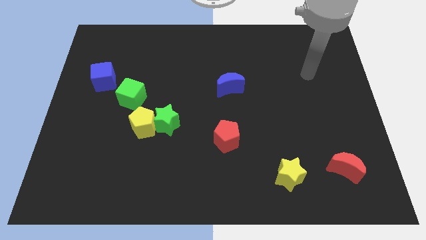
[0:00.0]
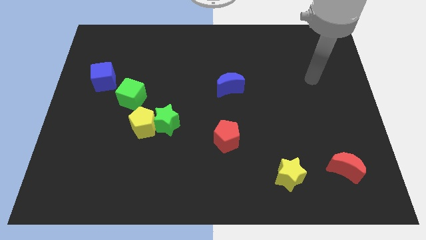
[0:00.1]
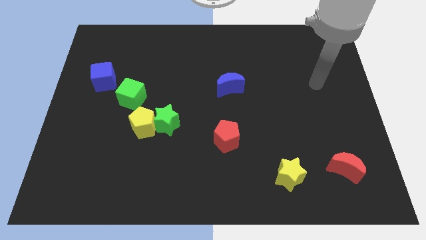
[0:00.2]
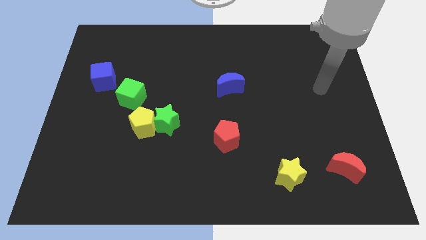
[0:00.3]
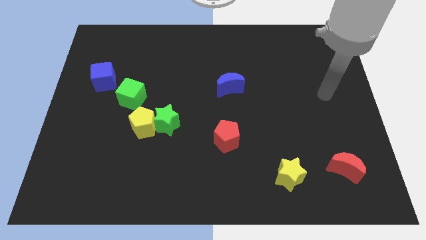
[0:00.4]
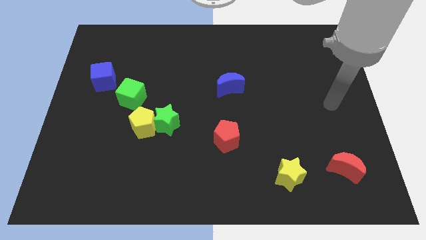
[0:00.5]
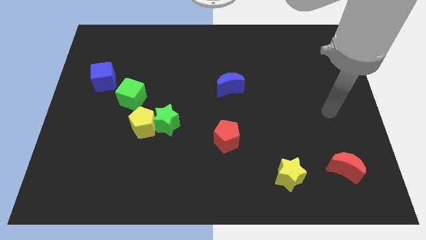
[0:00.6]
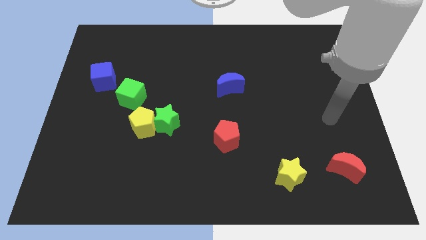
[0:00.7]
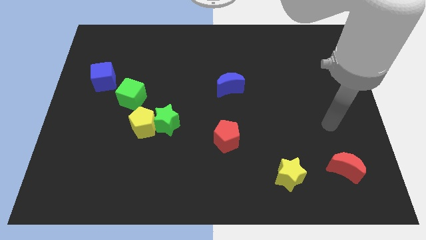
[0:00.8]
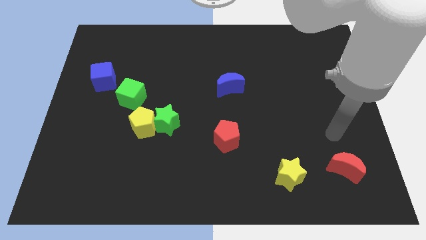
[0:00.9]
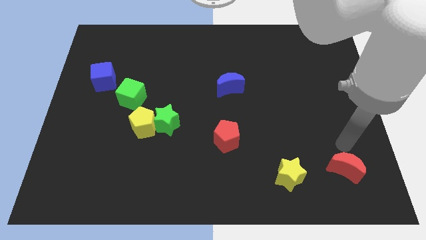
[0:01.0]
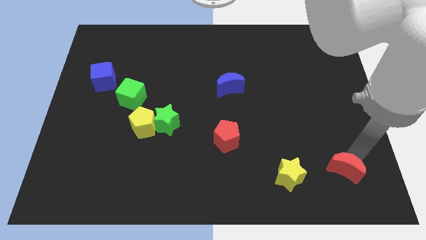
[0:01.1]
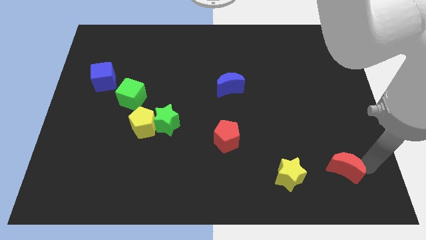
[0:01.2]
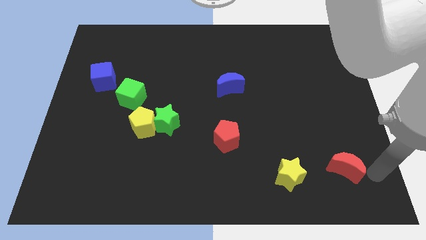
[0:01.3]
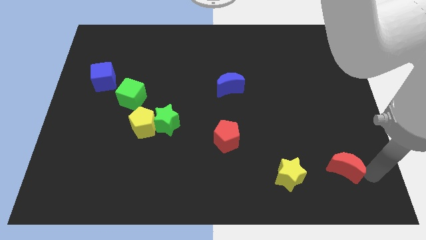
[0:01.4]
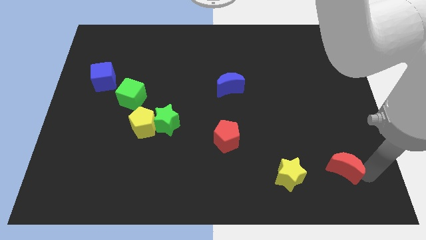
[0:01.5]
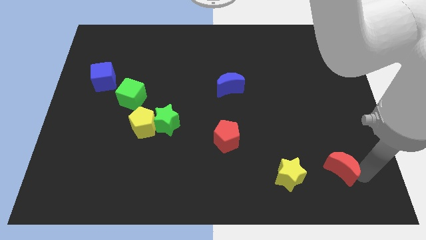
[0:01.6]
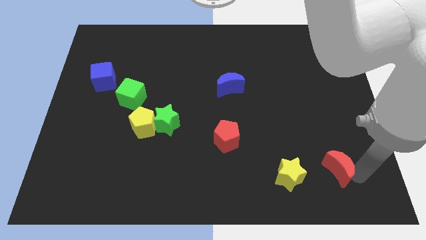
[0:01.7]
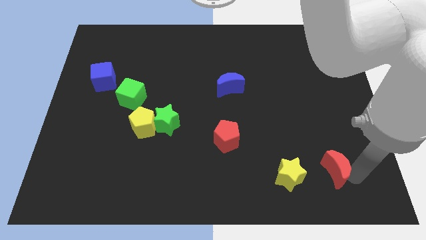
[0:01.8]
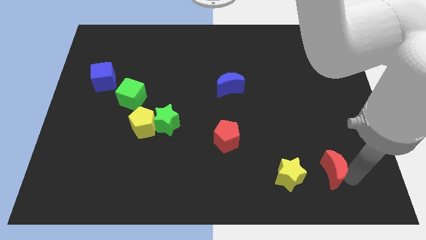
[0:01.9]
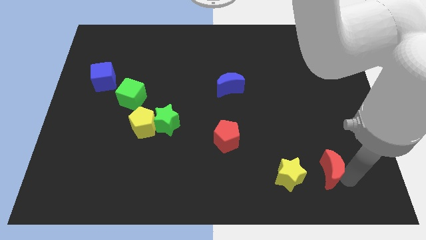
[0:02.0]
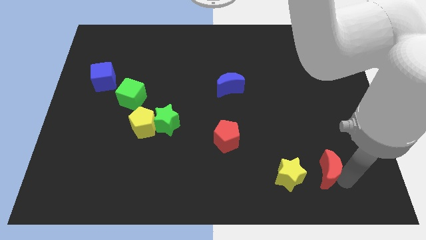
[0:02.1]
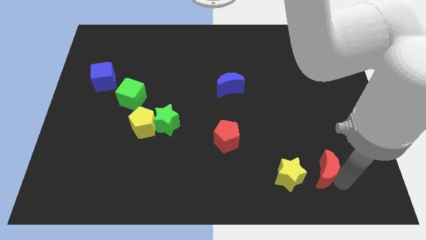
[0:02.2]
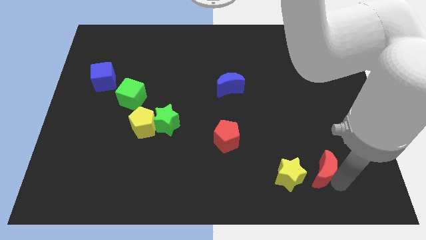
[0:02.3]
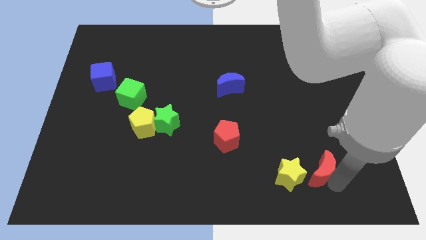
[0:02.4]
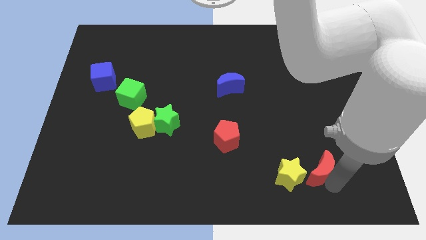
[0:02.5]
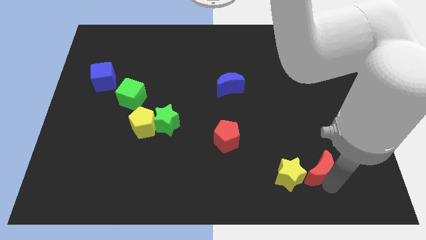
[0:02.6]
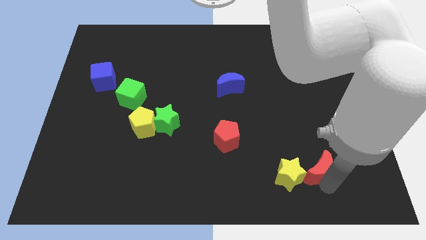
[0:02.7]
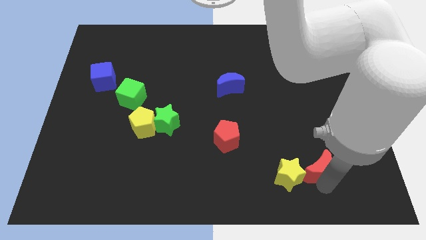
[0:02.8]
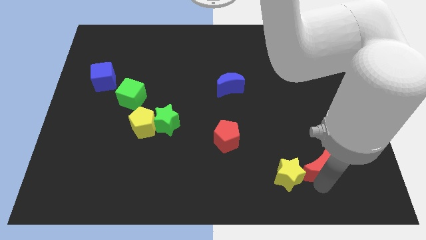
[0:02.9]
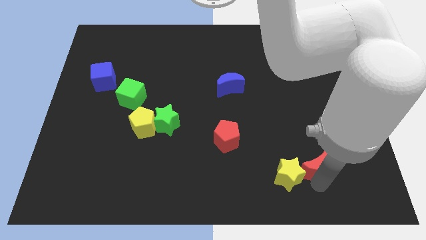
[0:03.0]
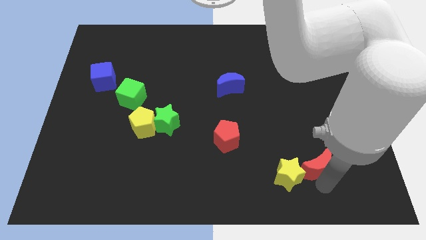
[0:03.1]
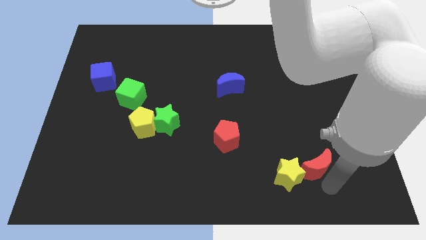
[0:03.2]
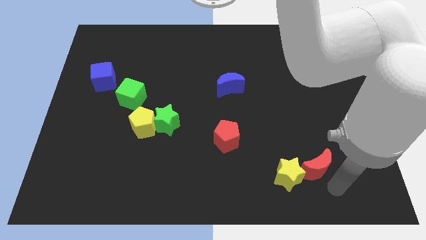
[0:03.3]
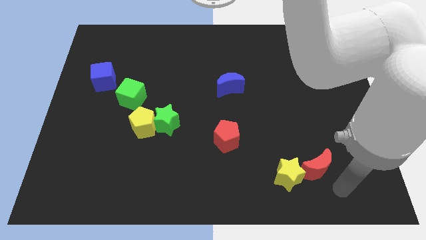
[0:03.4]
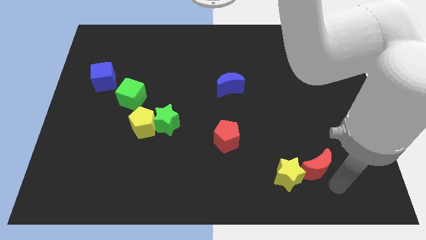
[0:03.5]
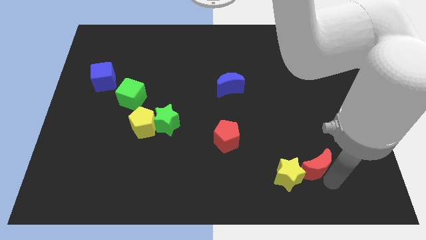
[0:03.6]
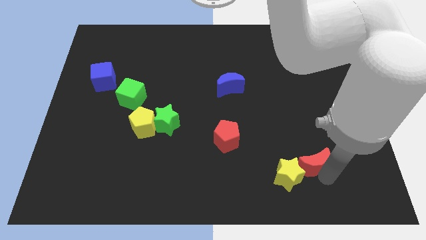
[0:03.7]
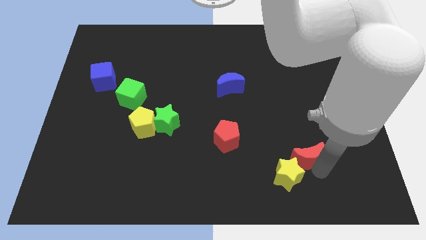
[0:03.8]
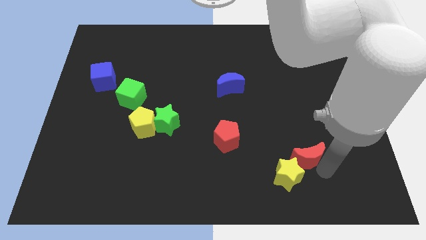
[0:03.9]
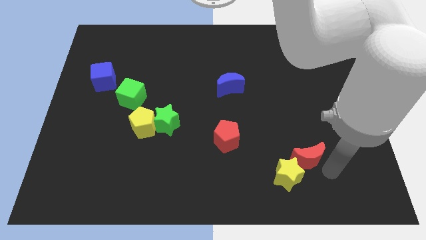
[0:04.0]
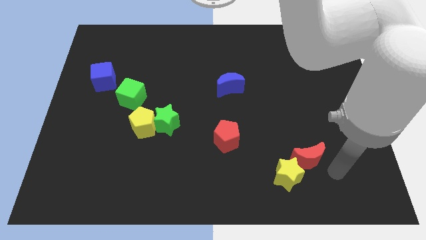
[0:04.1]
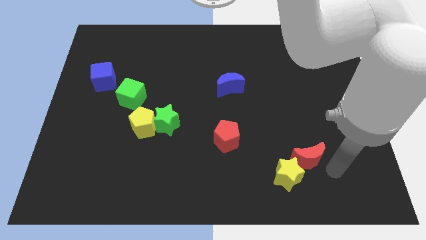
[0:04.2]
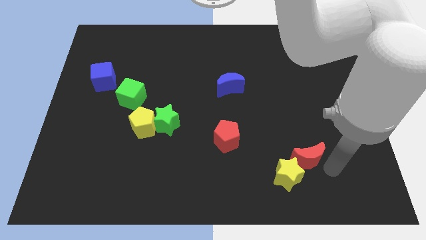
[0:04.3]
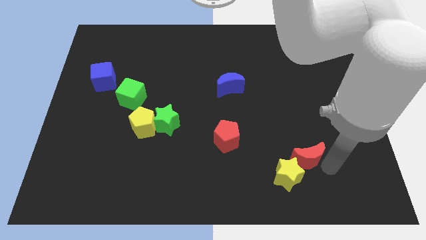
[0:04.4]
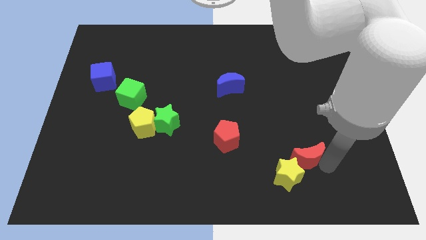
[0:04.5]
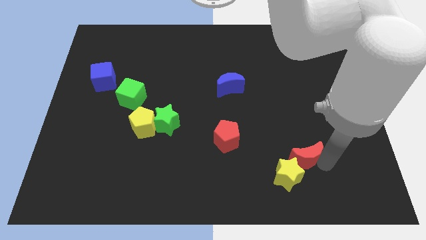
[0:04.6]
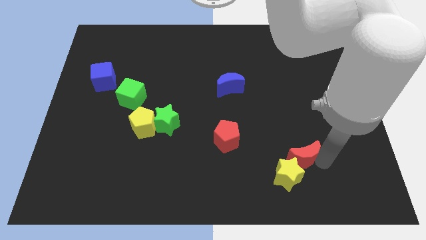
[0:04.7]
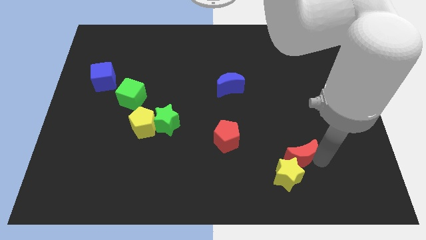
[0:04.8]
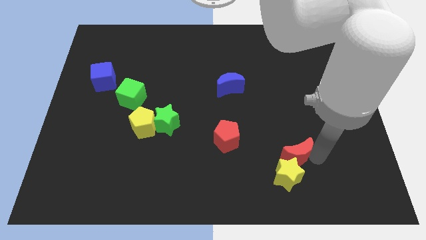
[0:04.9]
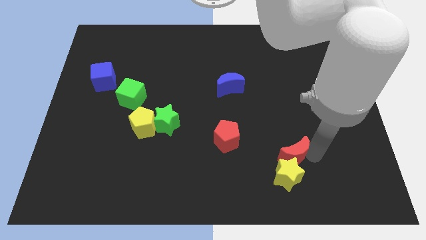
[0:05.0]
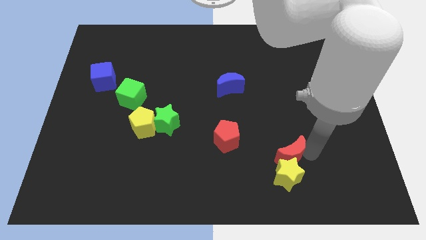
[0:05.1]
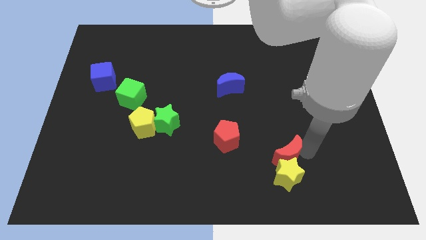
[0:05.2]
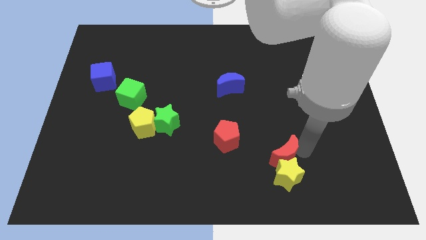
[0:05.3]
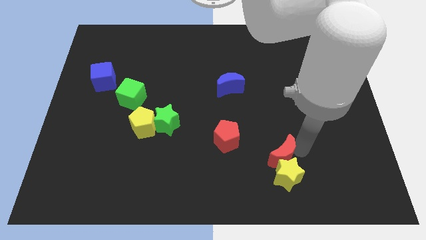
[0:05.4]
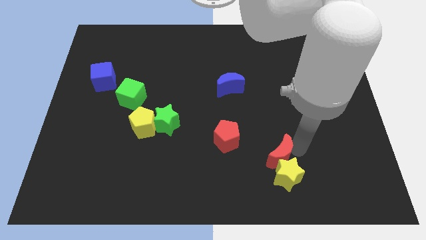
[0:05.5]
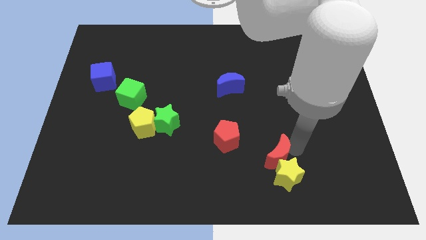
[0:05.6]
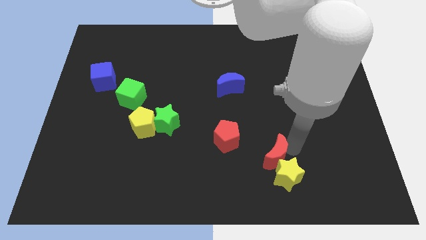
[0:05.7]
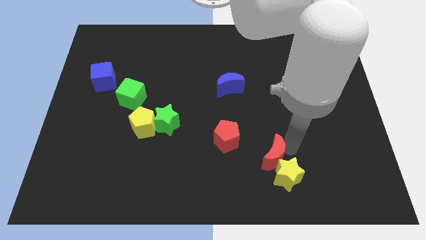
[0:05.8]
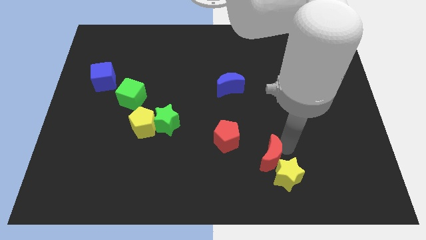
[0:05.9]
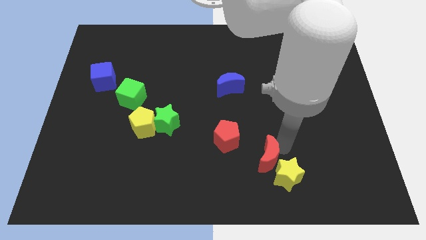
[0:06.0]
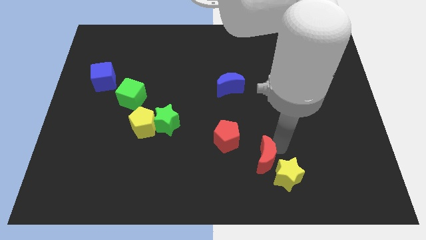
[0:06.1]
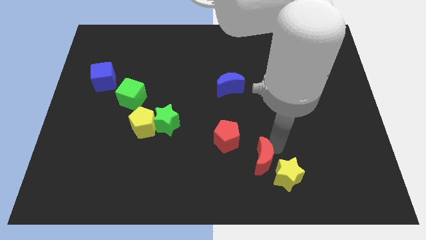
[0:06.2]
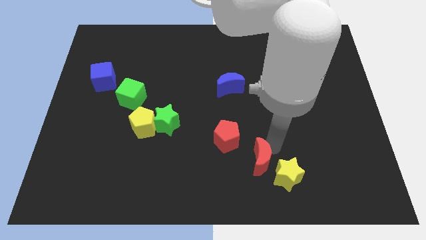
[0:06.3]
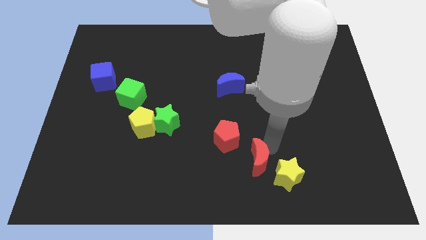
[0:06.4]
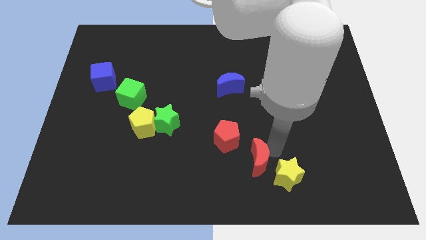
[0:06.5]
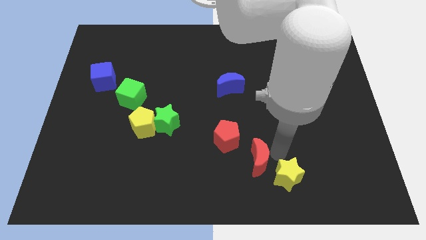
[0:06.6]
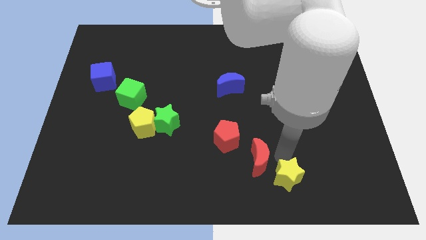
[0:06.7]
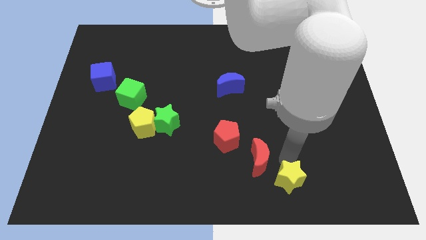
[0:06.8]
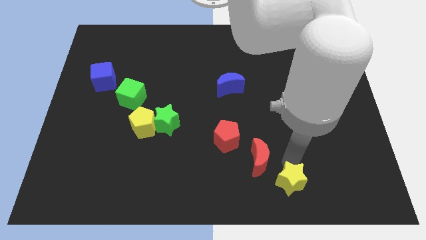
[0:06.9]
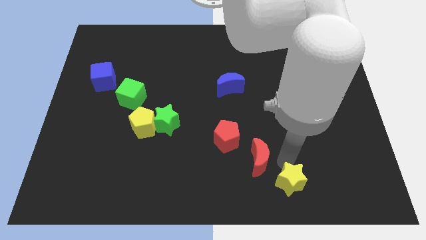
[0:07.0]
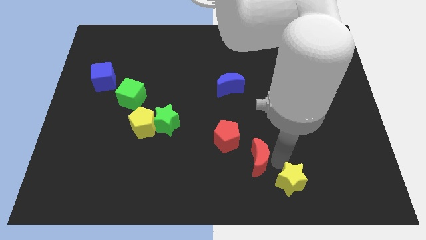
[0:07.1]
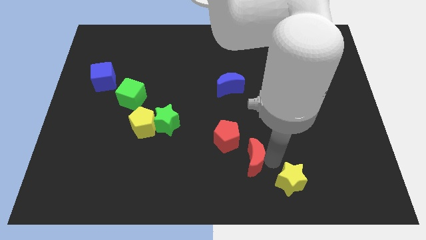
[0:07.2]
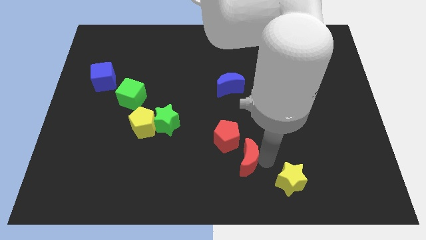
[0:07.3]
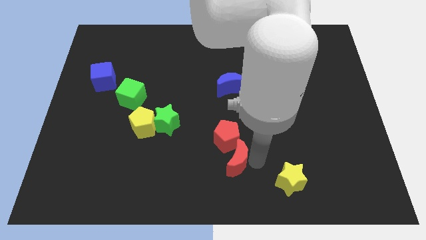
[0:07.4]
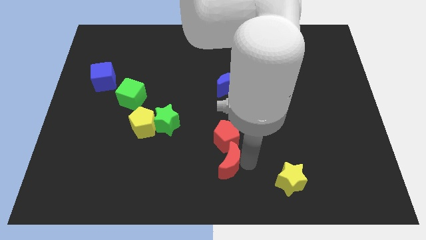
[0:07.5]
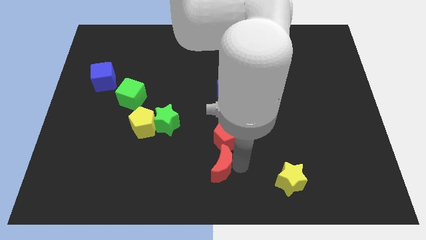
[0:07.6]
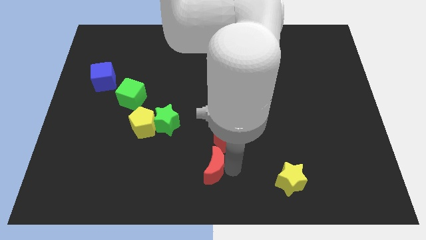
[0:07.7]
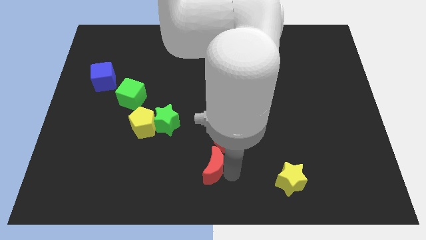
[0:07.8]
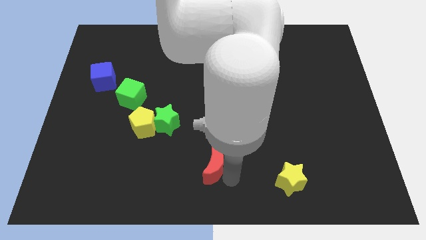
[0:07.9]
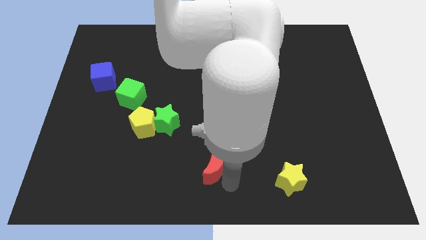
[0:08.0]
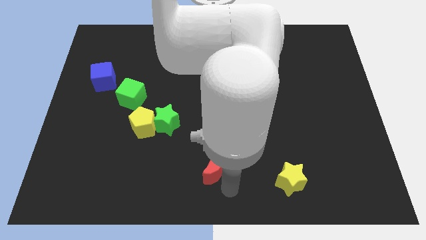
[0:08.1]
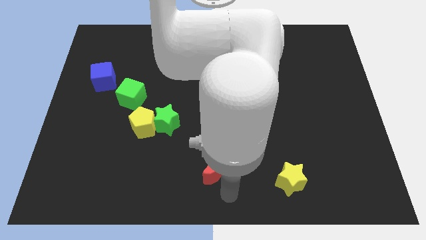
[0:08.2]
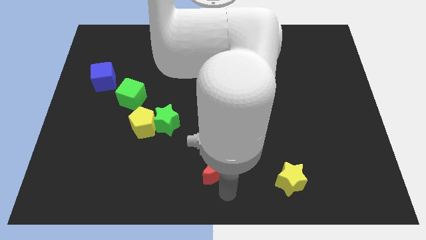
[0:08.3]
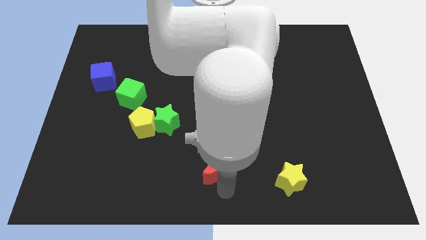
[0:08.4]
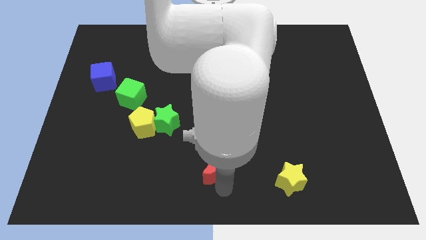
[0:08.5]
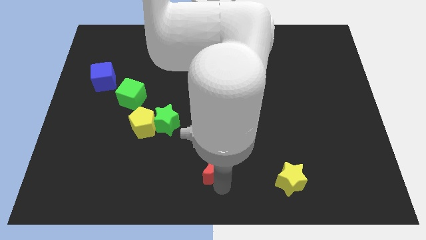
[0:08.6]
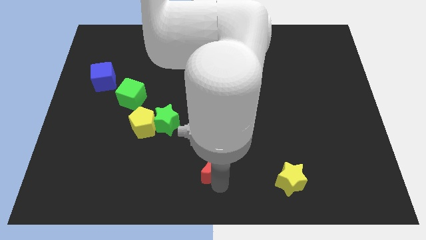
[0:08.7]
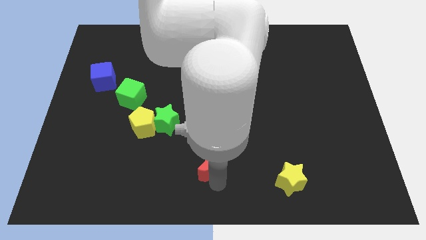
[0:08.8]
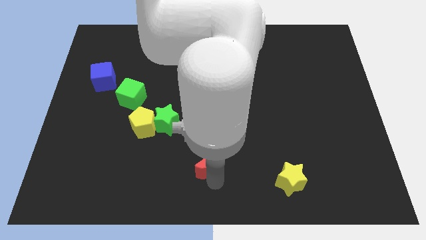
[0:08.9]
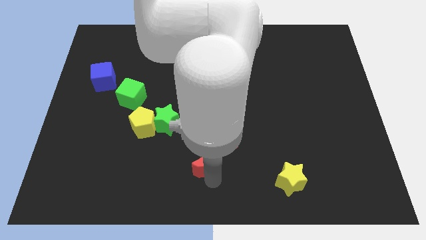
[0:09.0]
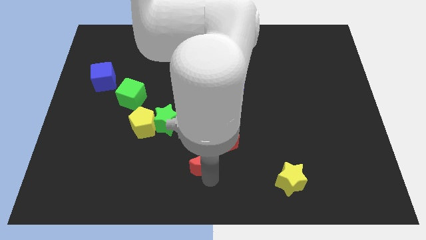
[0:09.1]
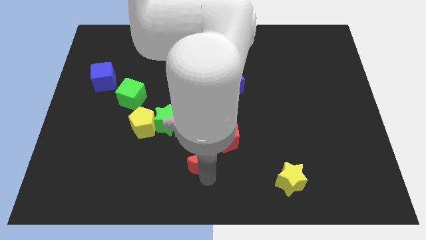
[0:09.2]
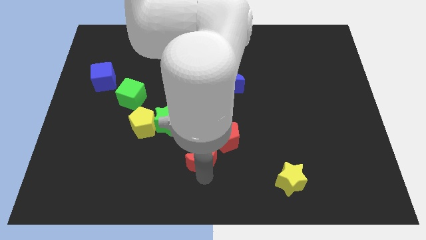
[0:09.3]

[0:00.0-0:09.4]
put the red moon diagonally down and to the right of the green star
